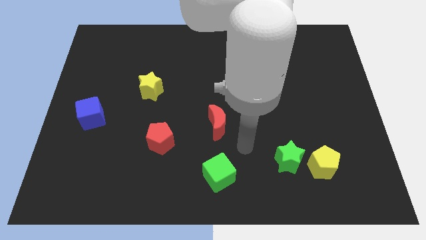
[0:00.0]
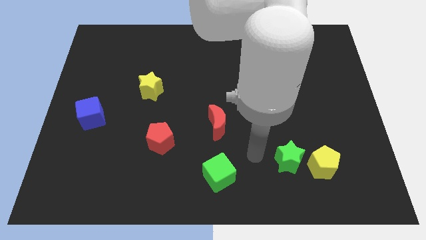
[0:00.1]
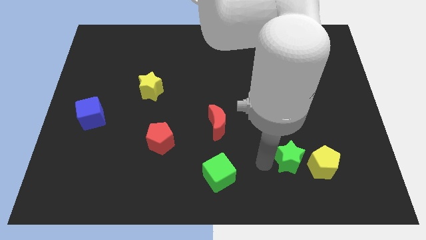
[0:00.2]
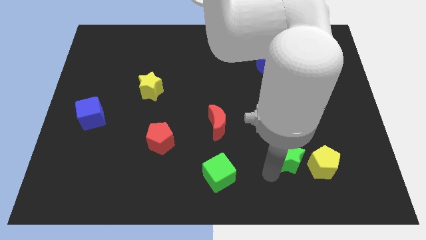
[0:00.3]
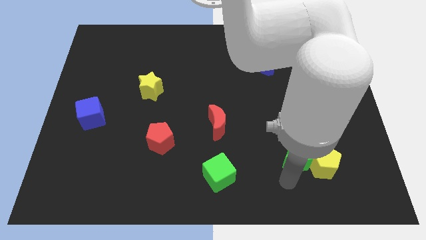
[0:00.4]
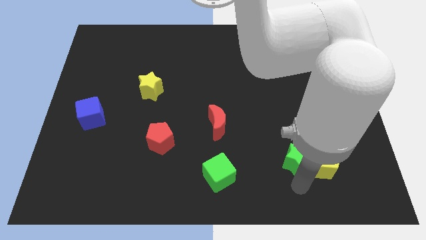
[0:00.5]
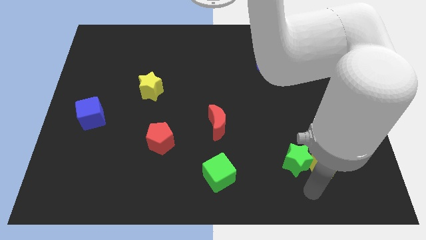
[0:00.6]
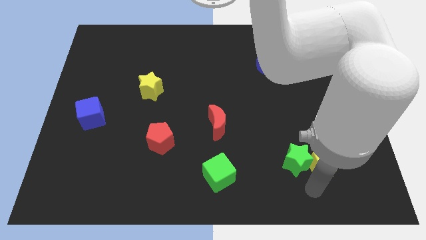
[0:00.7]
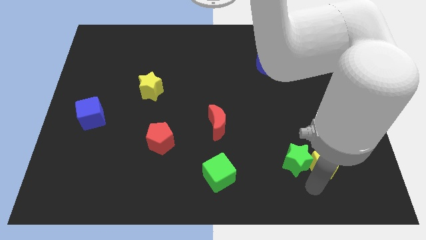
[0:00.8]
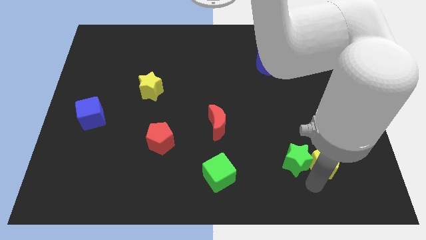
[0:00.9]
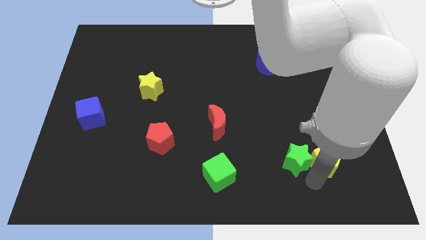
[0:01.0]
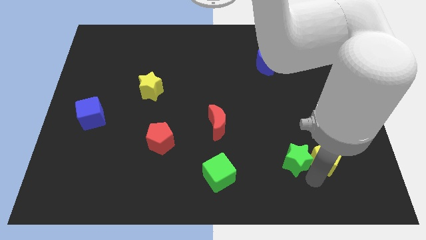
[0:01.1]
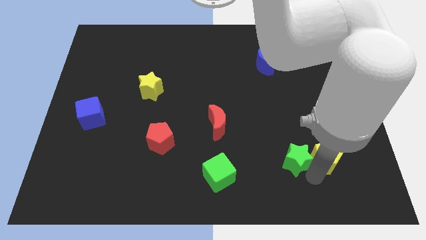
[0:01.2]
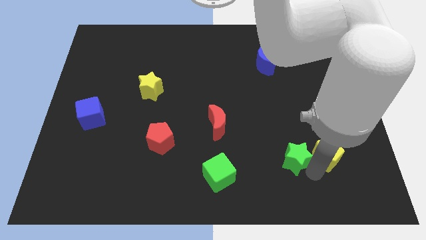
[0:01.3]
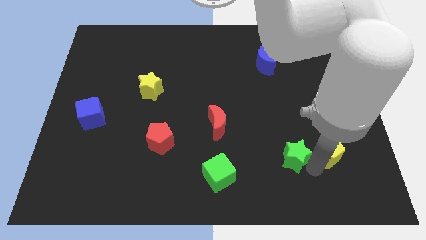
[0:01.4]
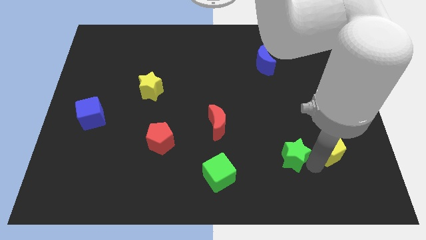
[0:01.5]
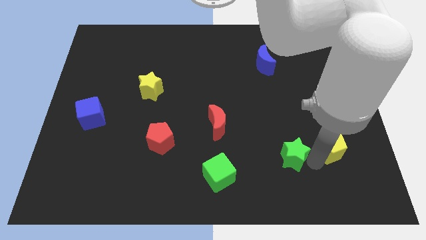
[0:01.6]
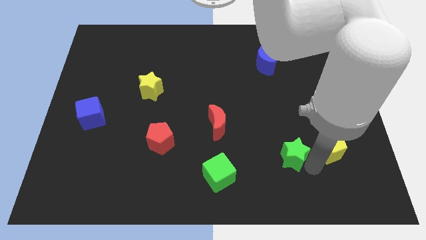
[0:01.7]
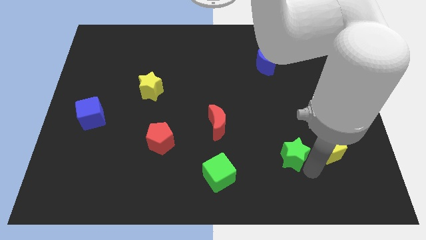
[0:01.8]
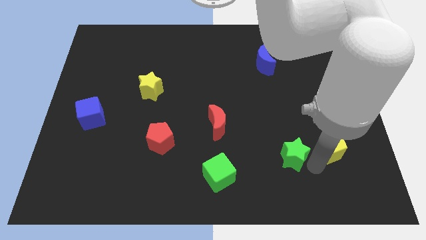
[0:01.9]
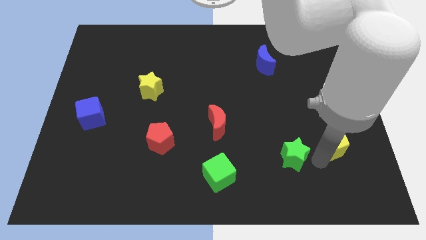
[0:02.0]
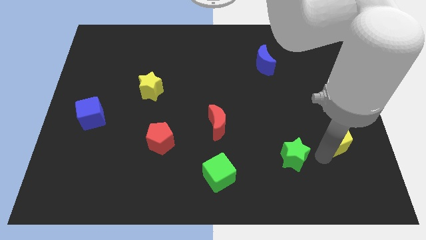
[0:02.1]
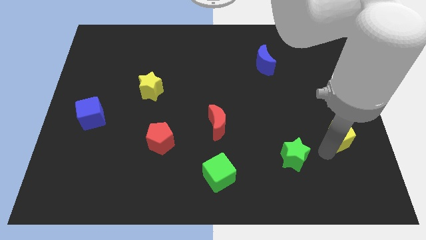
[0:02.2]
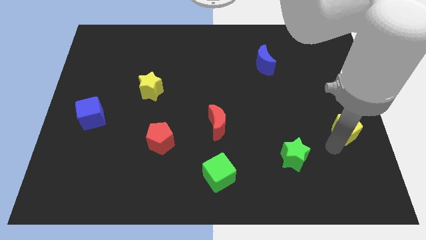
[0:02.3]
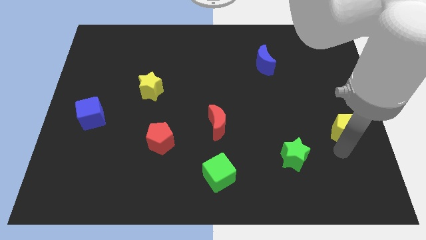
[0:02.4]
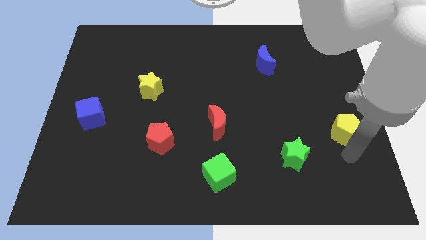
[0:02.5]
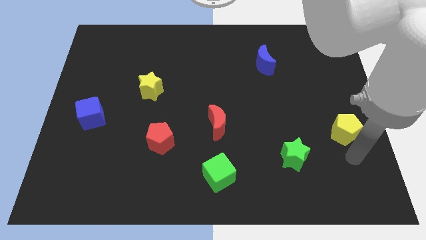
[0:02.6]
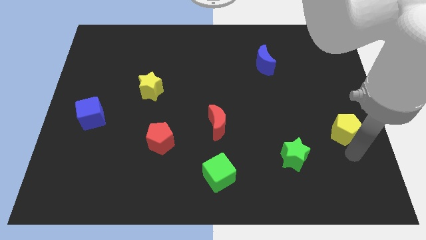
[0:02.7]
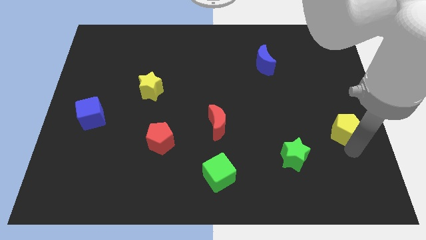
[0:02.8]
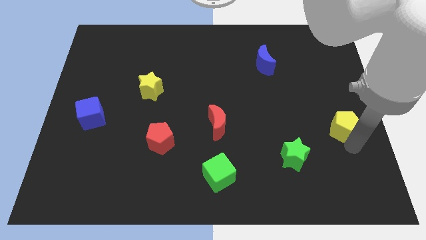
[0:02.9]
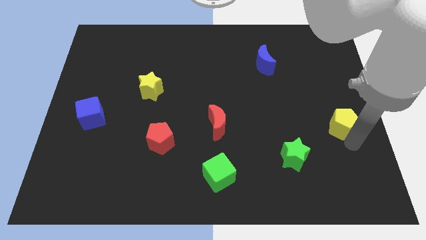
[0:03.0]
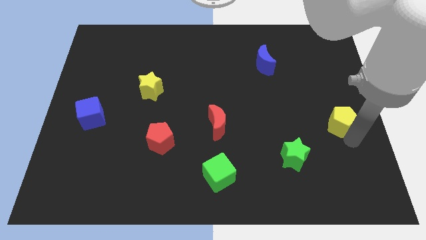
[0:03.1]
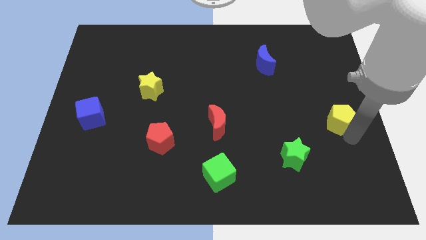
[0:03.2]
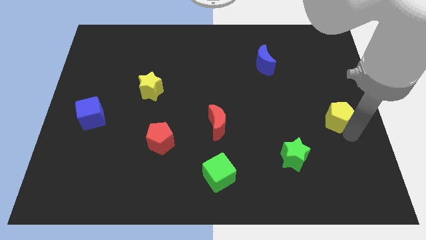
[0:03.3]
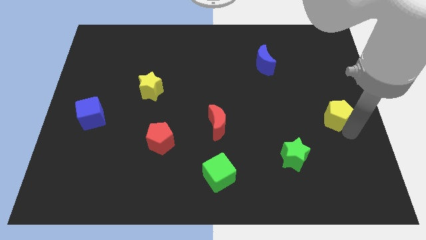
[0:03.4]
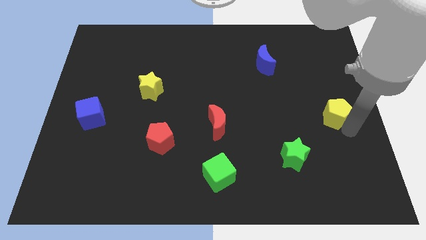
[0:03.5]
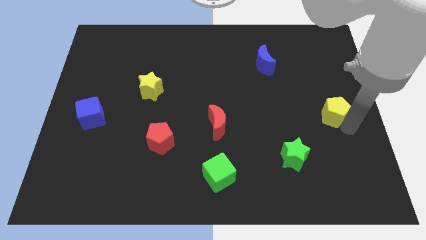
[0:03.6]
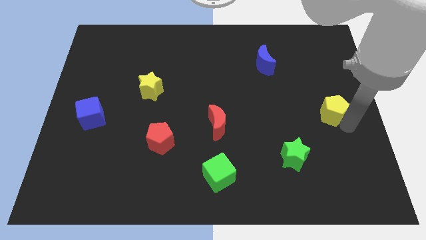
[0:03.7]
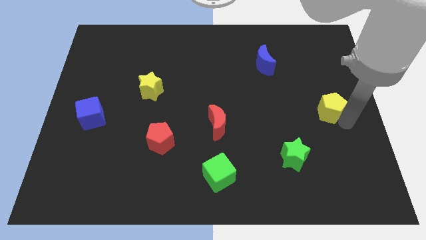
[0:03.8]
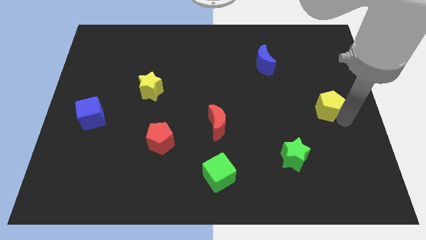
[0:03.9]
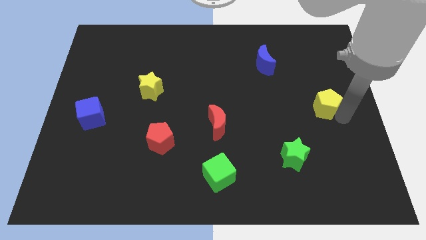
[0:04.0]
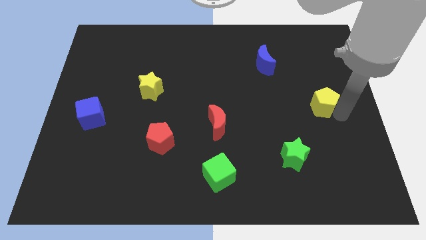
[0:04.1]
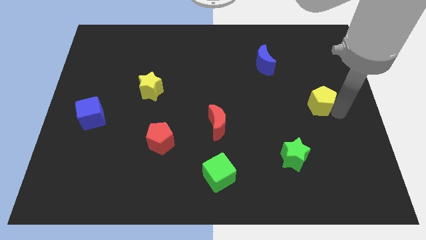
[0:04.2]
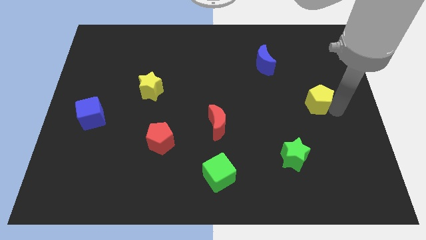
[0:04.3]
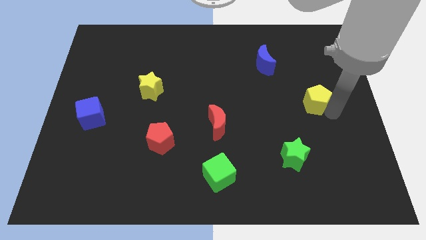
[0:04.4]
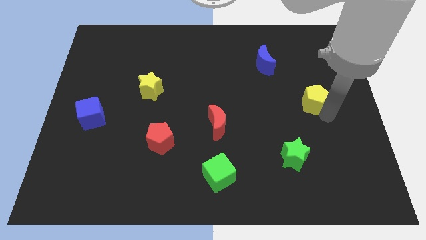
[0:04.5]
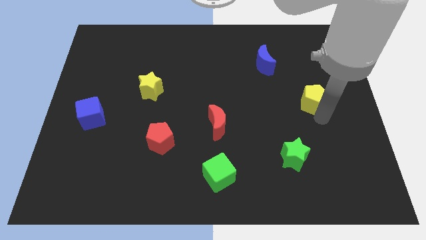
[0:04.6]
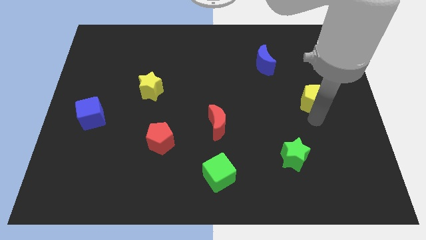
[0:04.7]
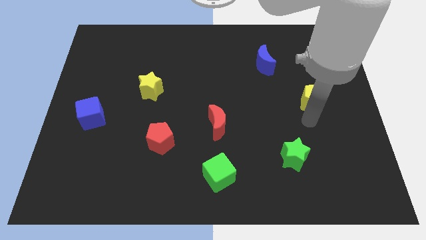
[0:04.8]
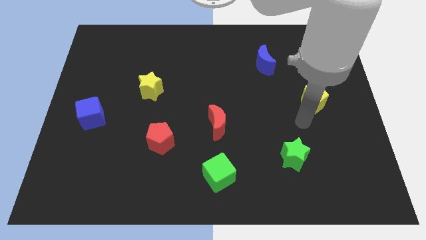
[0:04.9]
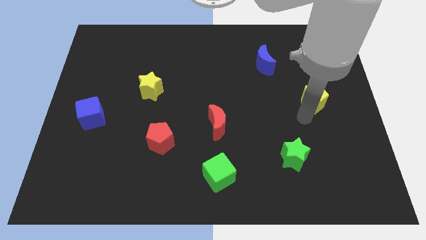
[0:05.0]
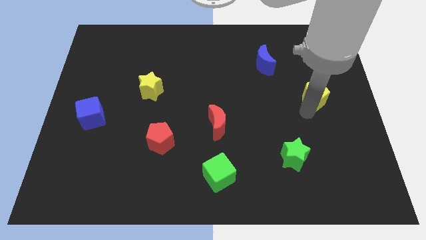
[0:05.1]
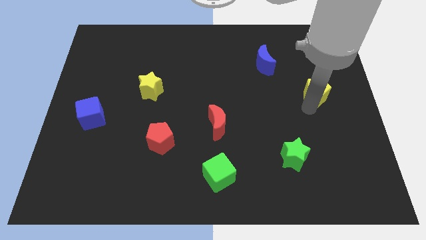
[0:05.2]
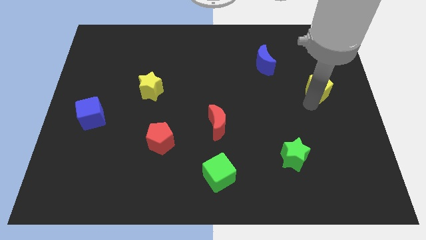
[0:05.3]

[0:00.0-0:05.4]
push the yellow pentagon up

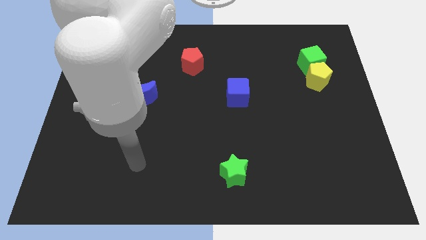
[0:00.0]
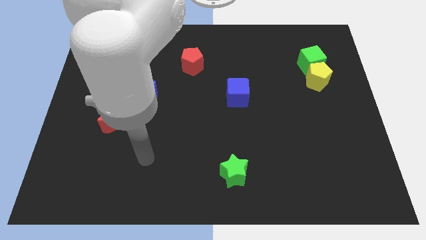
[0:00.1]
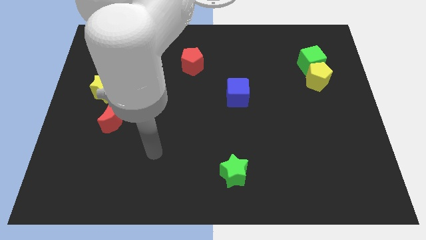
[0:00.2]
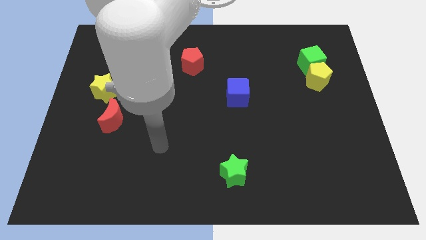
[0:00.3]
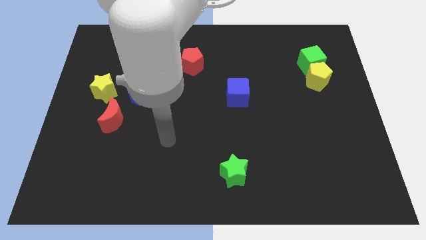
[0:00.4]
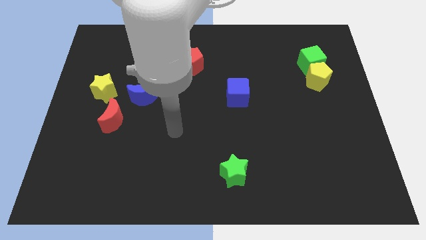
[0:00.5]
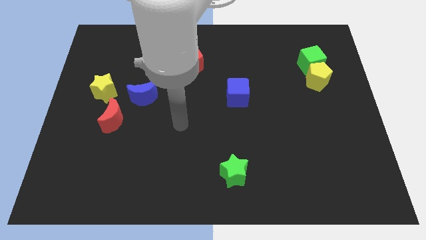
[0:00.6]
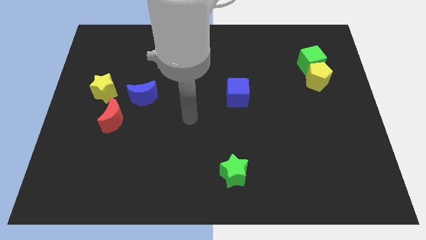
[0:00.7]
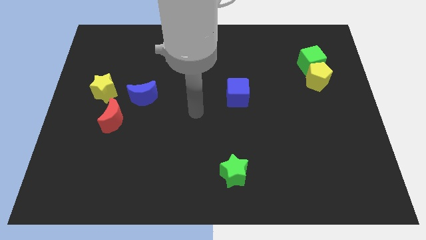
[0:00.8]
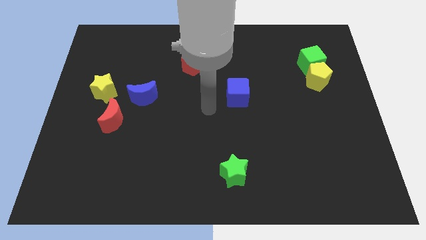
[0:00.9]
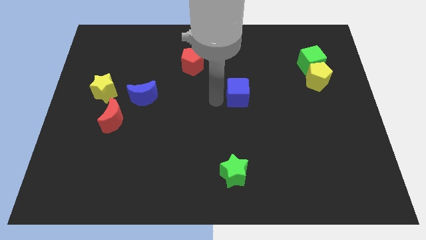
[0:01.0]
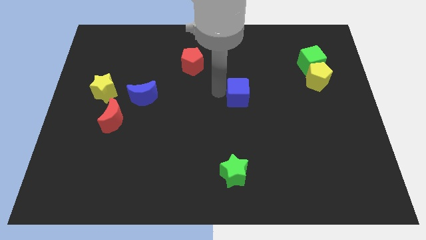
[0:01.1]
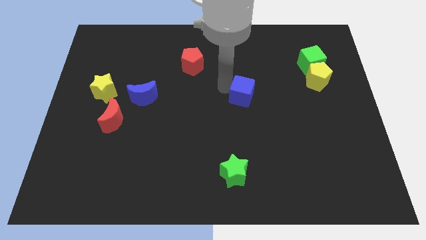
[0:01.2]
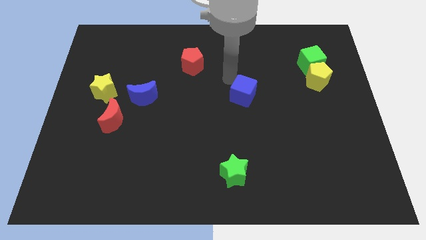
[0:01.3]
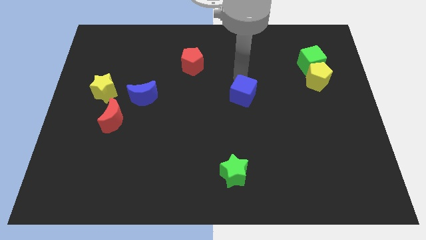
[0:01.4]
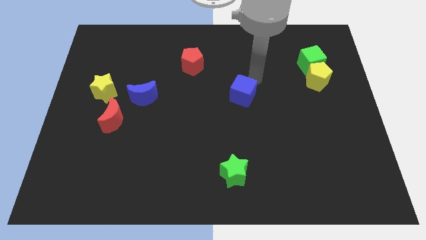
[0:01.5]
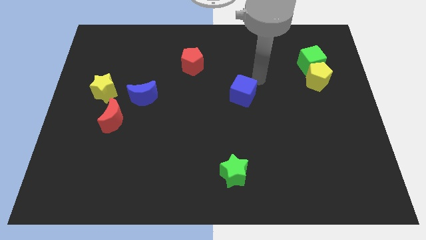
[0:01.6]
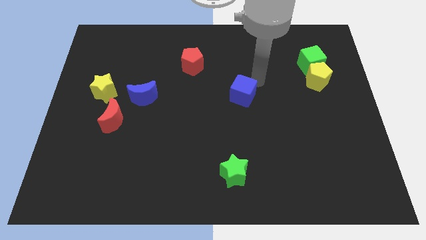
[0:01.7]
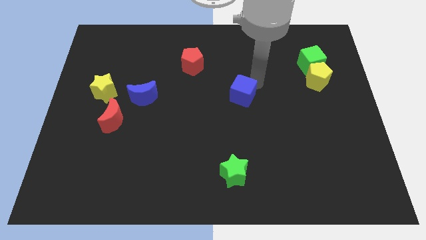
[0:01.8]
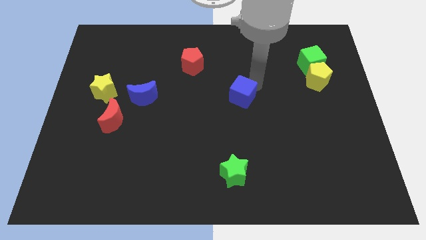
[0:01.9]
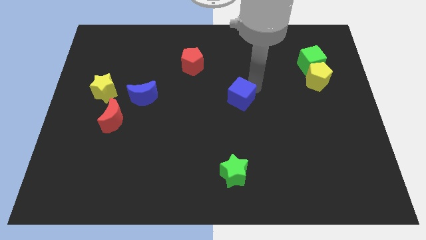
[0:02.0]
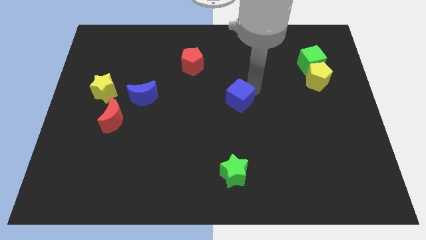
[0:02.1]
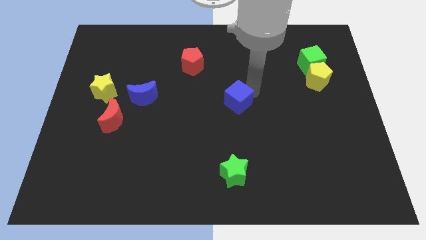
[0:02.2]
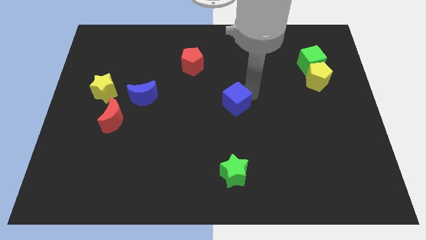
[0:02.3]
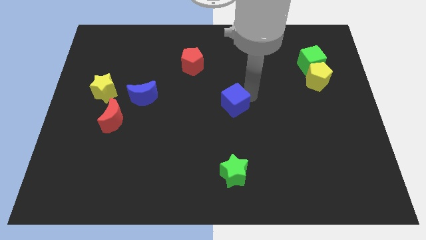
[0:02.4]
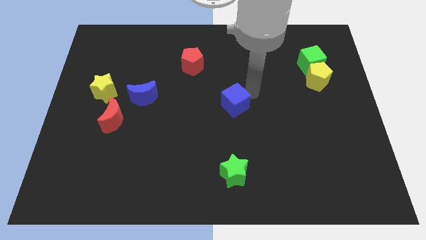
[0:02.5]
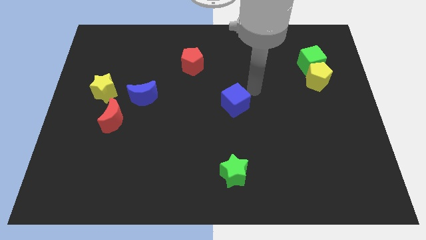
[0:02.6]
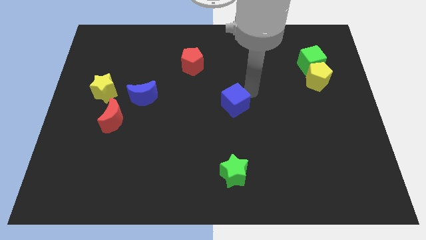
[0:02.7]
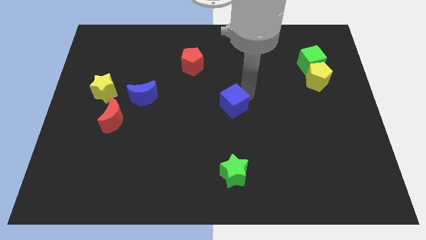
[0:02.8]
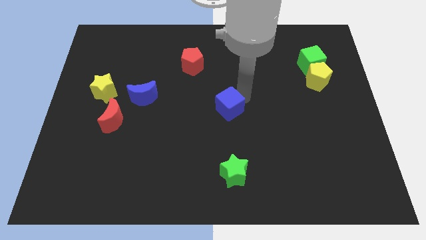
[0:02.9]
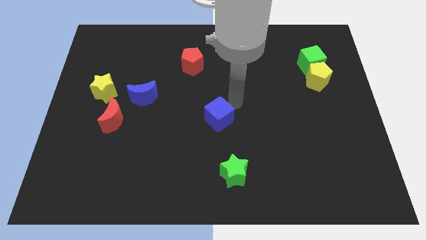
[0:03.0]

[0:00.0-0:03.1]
push the blue cube diagonally down and to the left a bit
